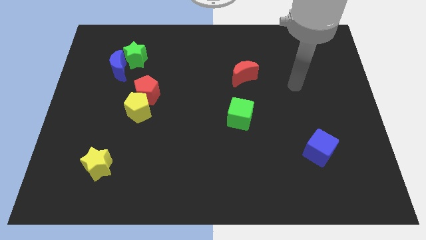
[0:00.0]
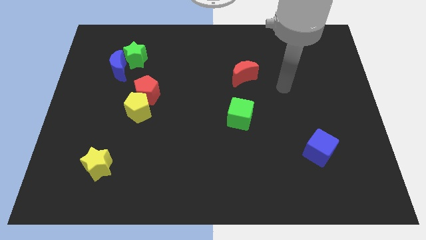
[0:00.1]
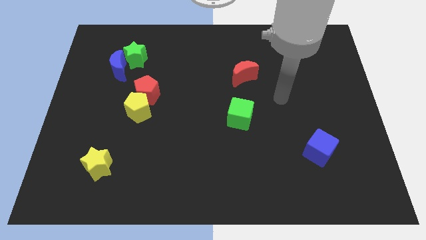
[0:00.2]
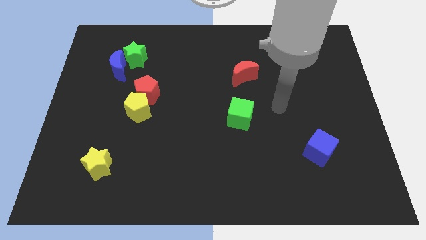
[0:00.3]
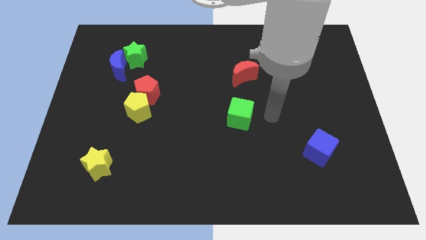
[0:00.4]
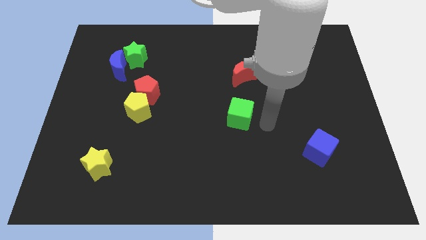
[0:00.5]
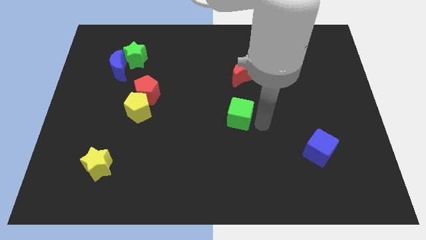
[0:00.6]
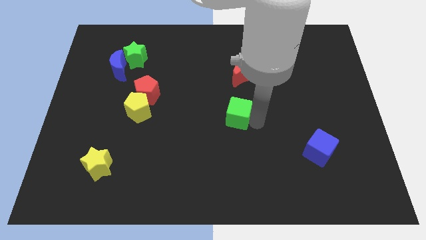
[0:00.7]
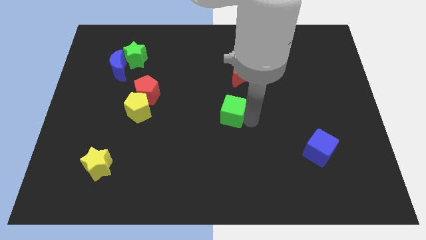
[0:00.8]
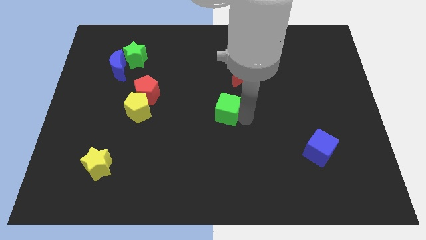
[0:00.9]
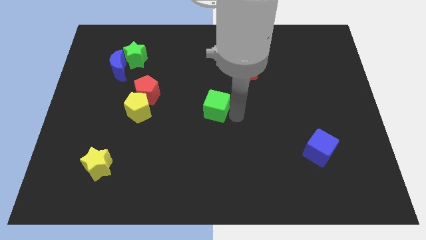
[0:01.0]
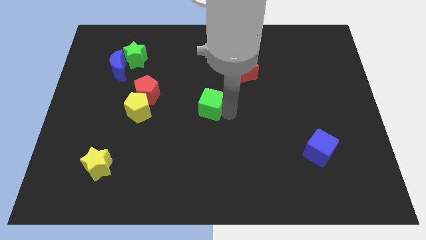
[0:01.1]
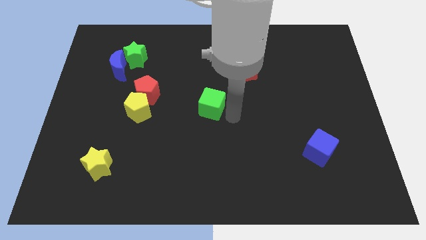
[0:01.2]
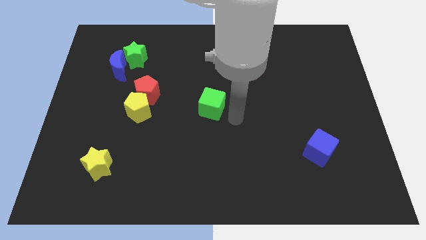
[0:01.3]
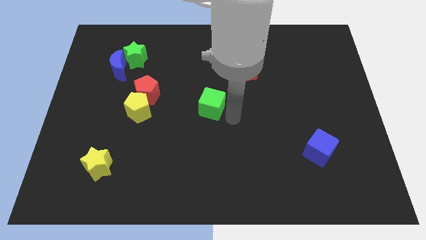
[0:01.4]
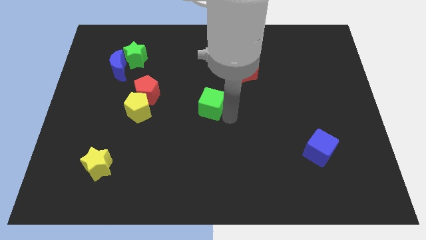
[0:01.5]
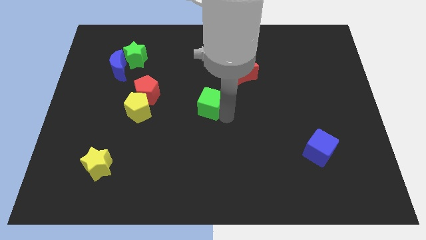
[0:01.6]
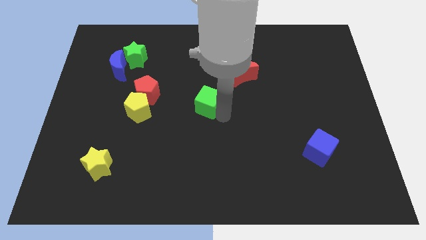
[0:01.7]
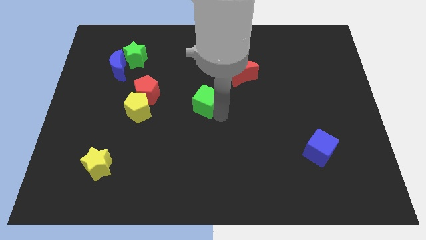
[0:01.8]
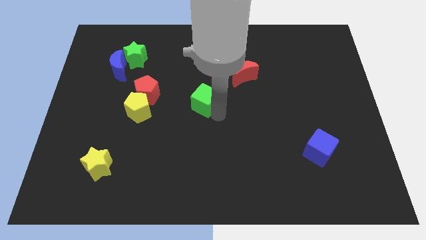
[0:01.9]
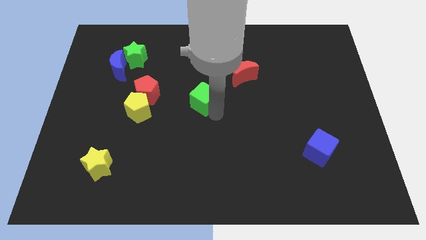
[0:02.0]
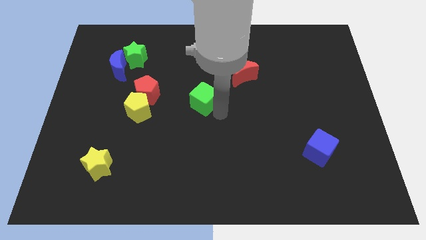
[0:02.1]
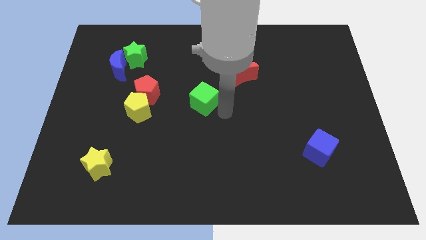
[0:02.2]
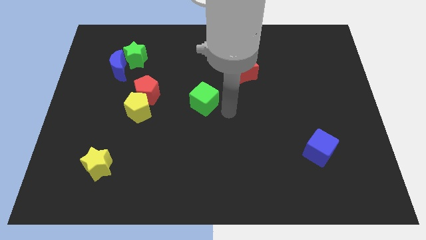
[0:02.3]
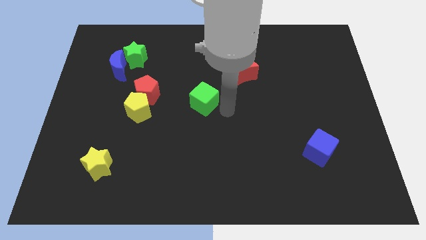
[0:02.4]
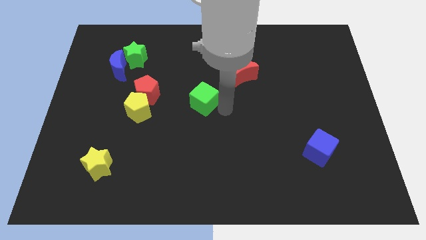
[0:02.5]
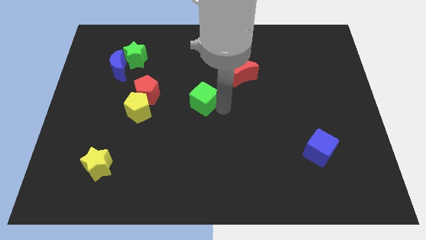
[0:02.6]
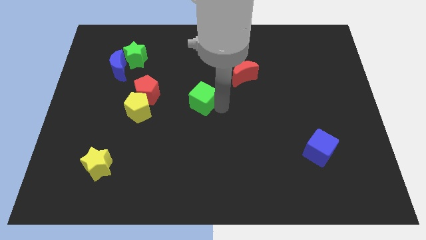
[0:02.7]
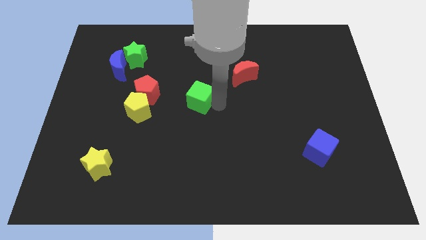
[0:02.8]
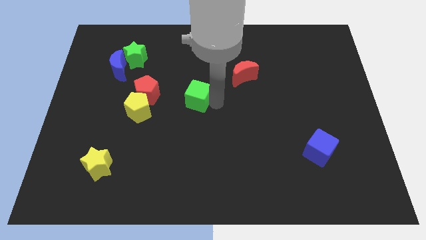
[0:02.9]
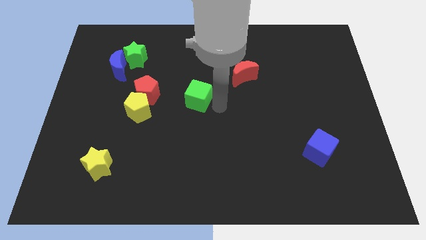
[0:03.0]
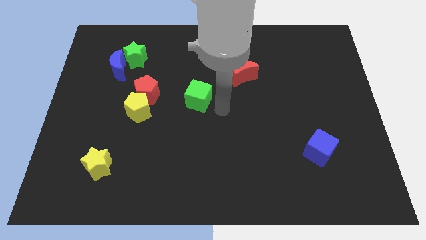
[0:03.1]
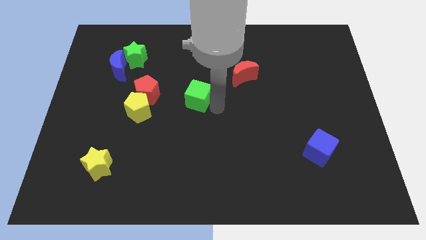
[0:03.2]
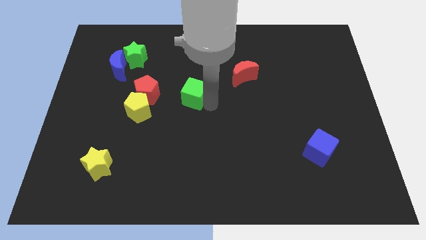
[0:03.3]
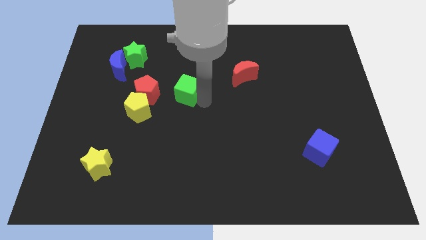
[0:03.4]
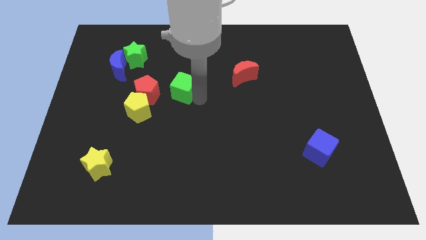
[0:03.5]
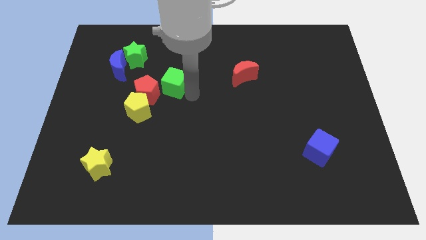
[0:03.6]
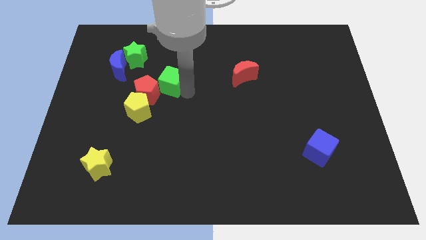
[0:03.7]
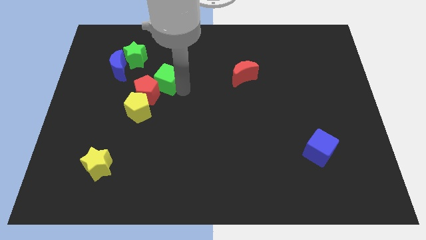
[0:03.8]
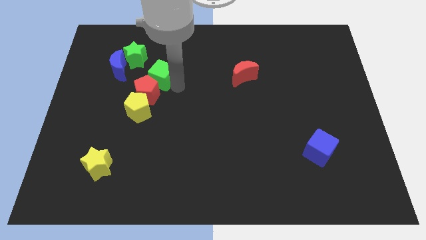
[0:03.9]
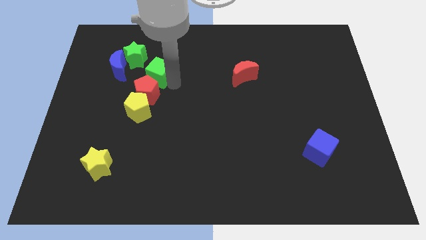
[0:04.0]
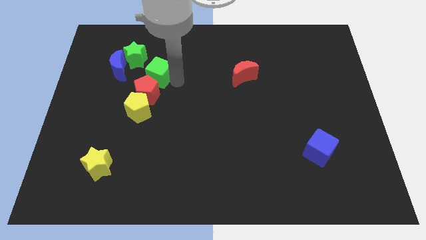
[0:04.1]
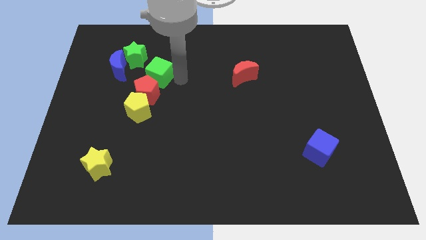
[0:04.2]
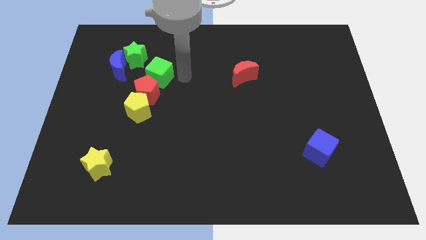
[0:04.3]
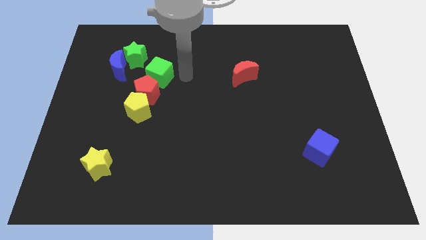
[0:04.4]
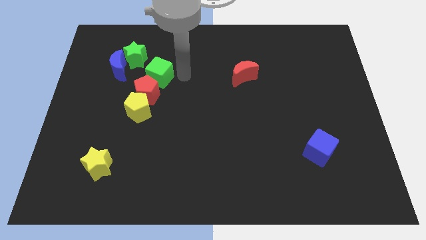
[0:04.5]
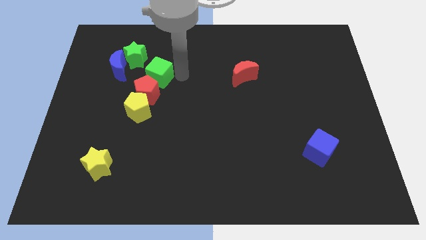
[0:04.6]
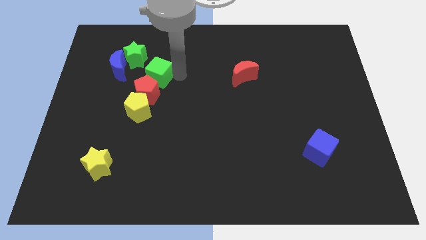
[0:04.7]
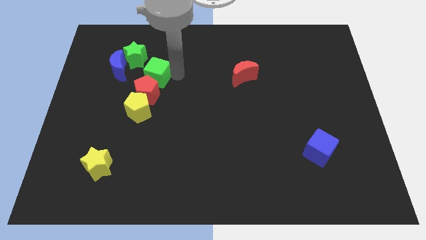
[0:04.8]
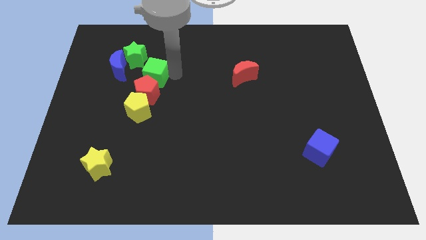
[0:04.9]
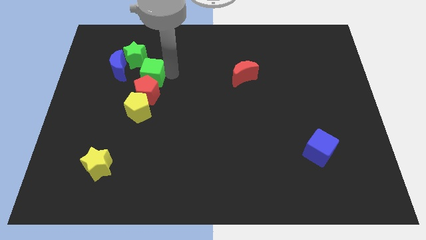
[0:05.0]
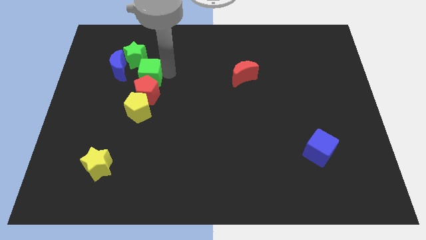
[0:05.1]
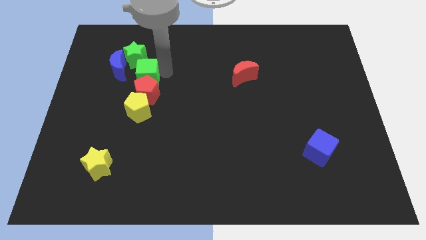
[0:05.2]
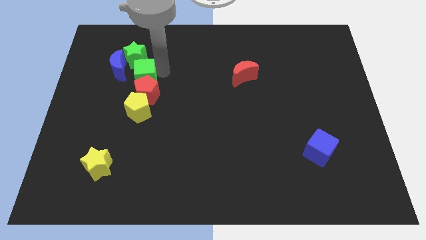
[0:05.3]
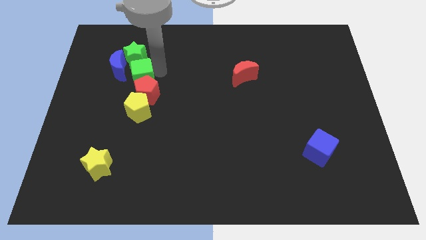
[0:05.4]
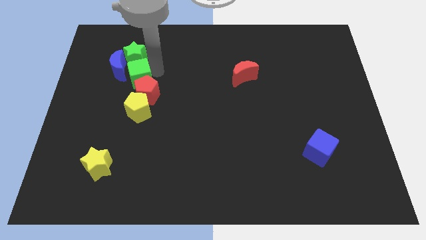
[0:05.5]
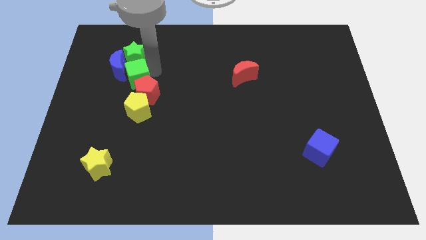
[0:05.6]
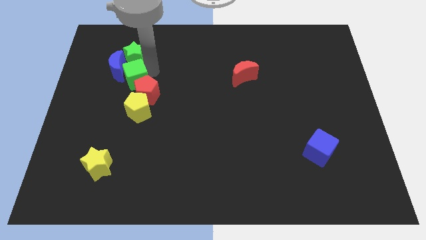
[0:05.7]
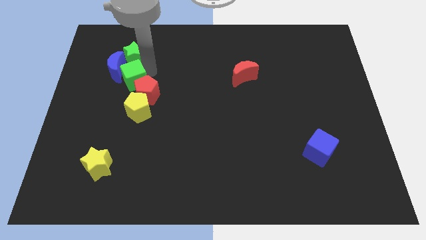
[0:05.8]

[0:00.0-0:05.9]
push the green cube to the bottom left of the green star

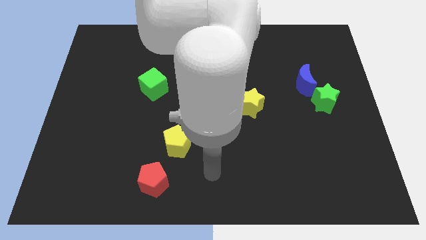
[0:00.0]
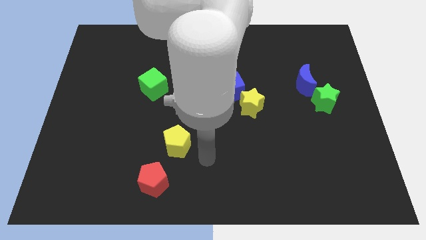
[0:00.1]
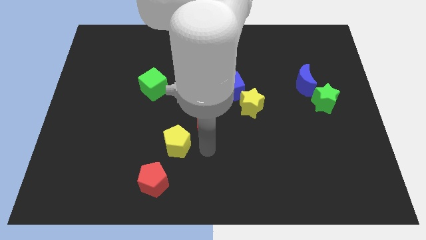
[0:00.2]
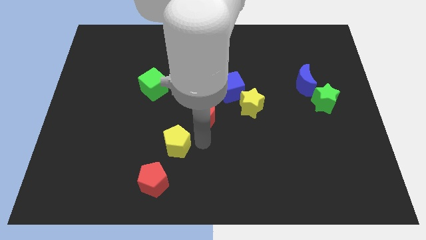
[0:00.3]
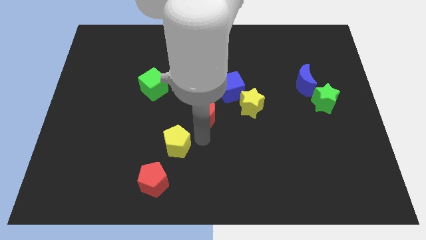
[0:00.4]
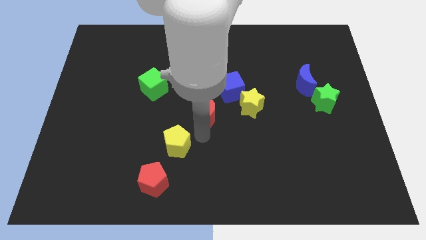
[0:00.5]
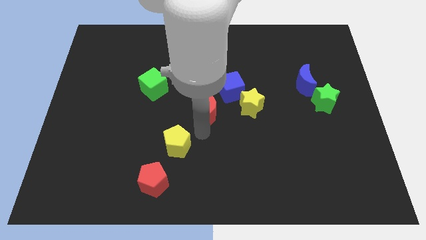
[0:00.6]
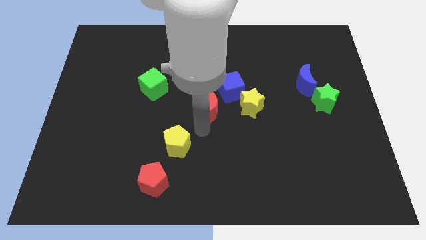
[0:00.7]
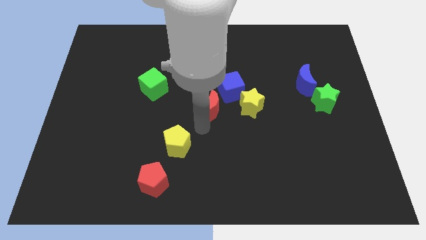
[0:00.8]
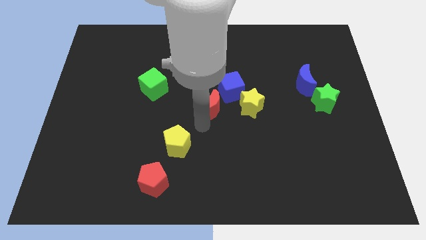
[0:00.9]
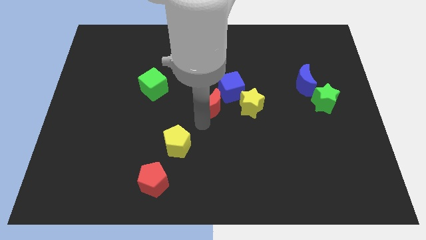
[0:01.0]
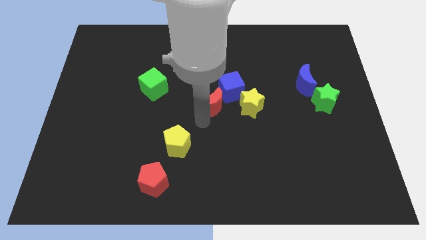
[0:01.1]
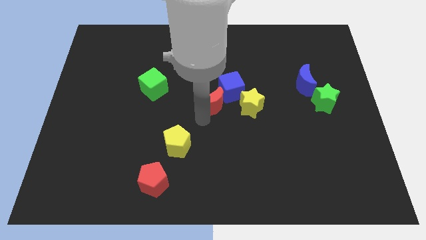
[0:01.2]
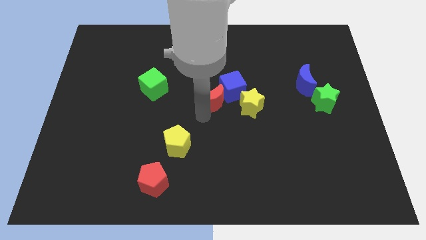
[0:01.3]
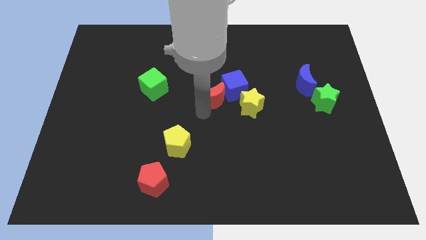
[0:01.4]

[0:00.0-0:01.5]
move the red moon diagonally up and to the left of the yellow star
